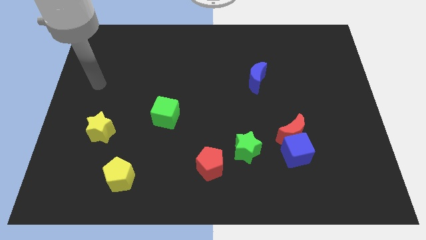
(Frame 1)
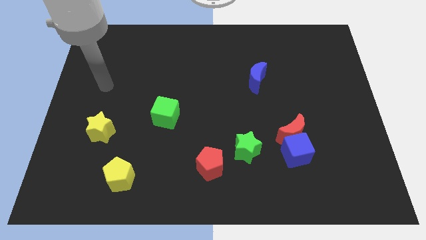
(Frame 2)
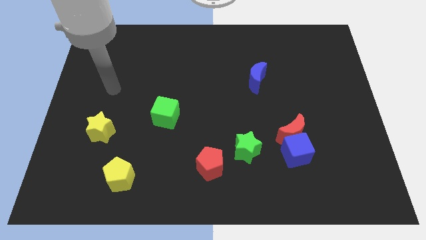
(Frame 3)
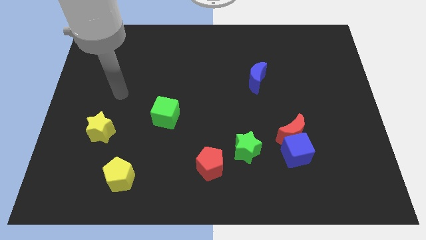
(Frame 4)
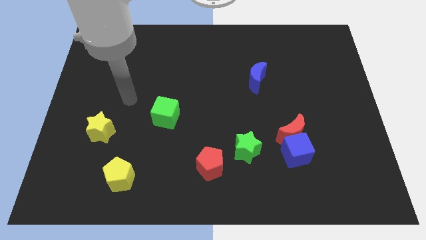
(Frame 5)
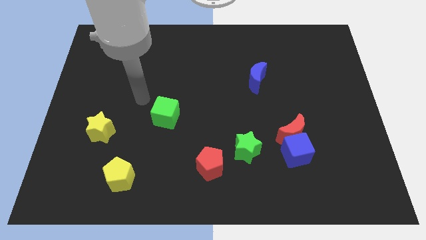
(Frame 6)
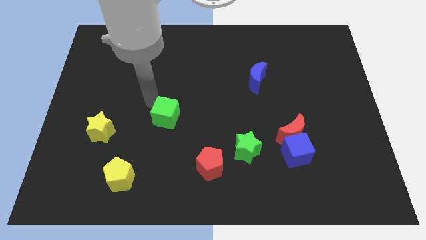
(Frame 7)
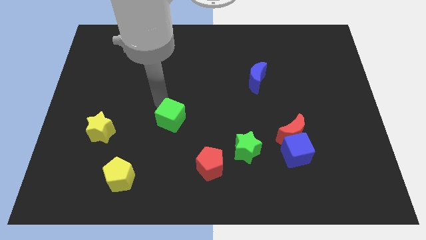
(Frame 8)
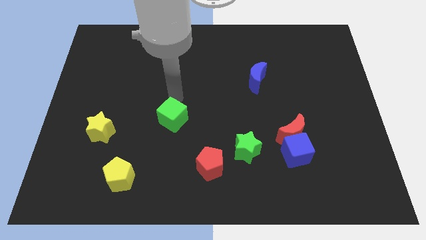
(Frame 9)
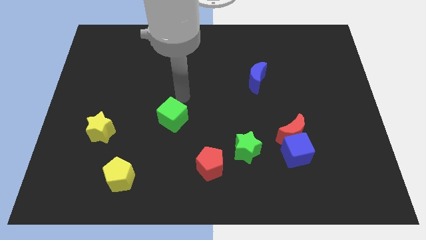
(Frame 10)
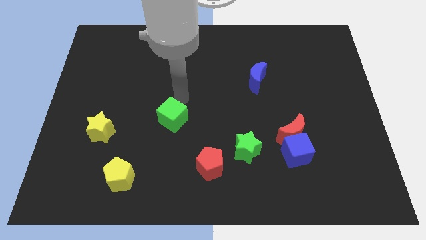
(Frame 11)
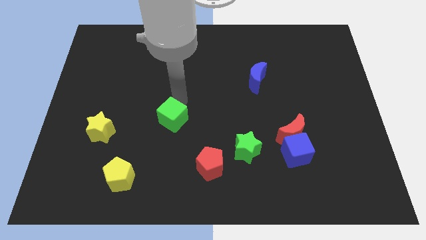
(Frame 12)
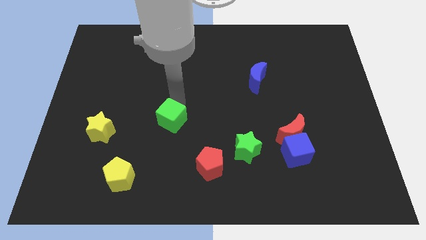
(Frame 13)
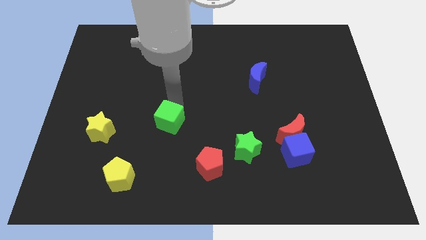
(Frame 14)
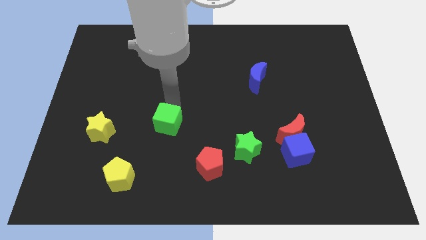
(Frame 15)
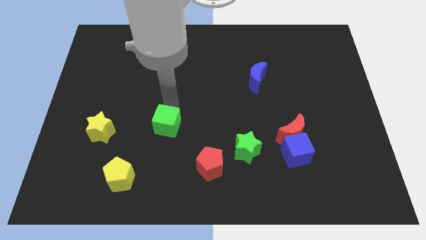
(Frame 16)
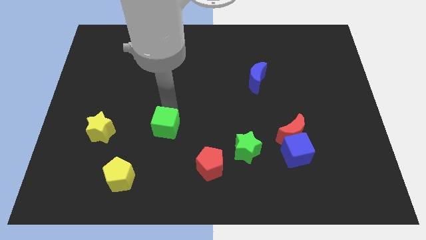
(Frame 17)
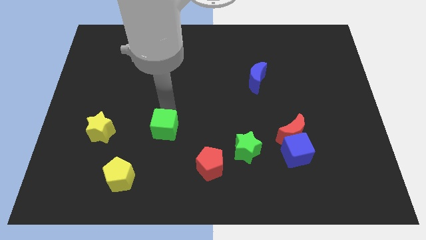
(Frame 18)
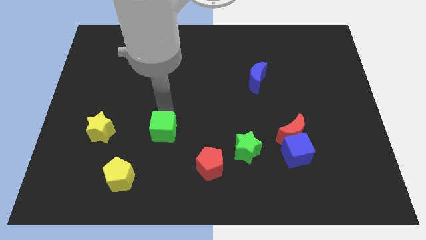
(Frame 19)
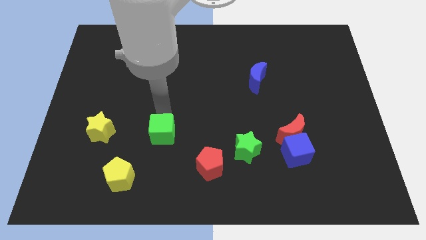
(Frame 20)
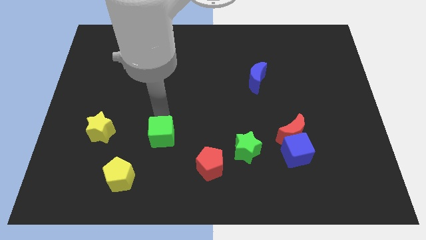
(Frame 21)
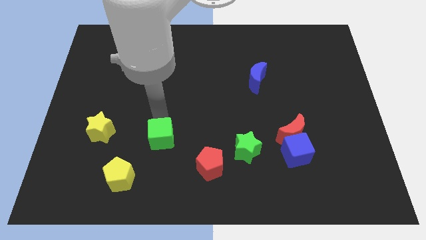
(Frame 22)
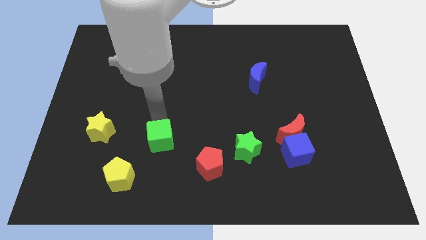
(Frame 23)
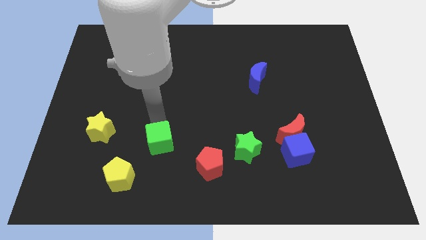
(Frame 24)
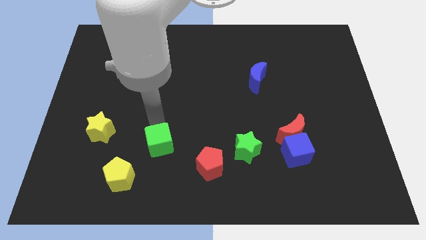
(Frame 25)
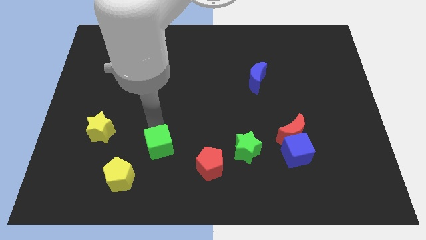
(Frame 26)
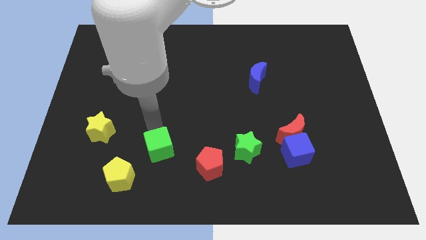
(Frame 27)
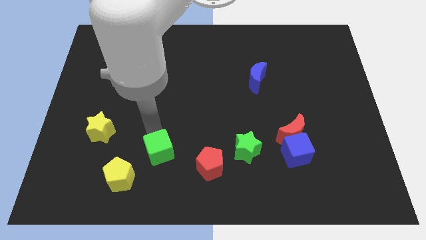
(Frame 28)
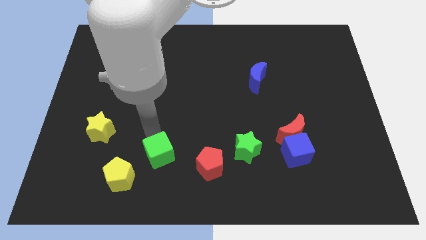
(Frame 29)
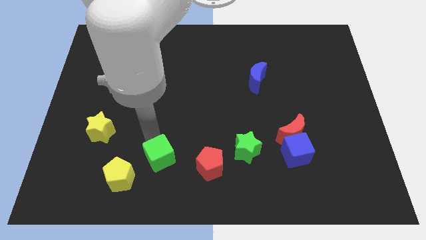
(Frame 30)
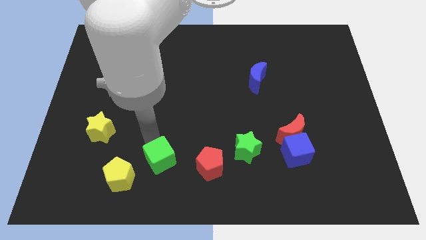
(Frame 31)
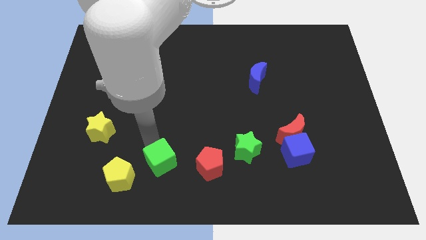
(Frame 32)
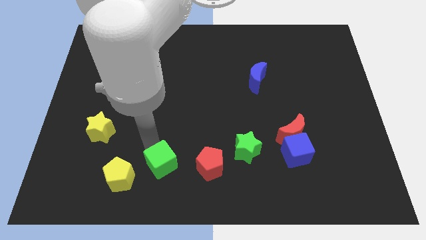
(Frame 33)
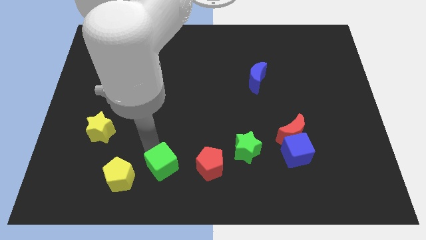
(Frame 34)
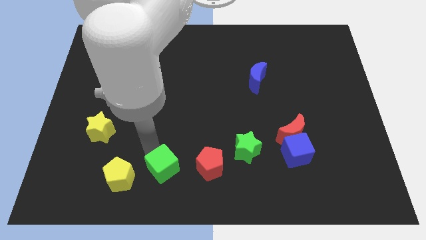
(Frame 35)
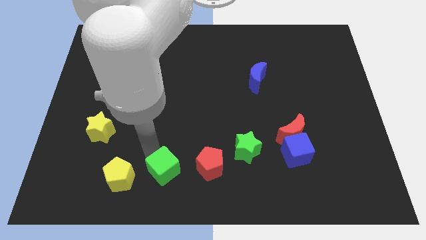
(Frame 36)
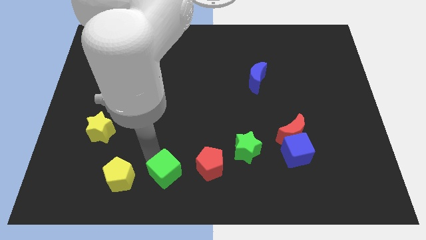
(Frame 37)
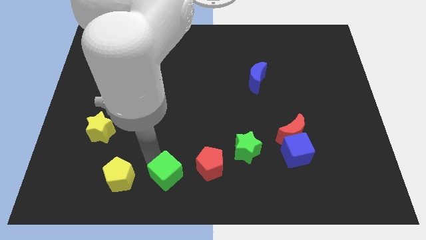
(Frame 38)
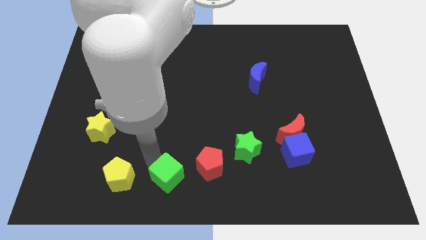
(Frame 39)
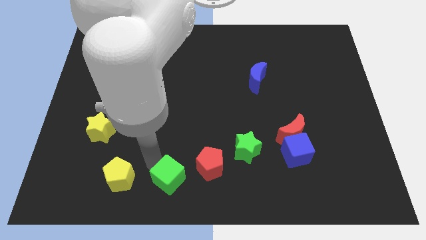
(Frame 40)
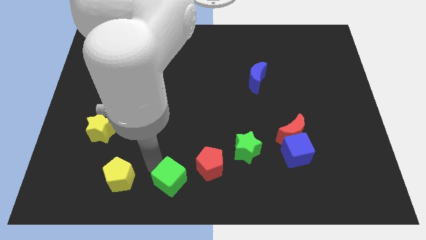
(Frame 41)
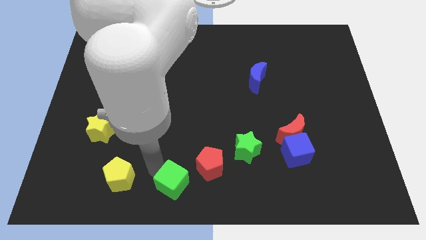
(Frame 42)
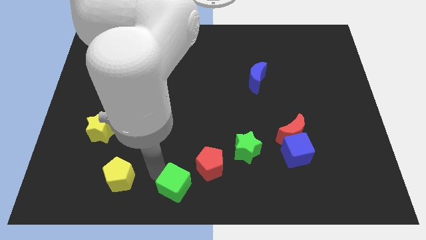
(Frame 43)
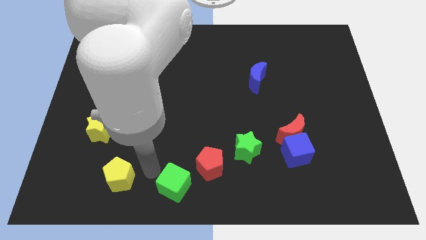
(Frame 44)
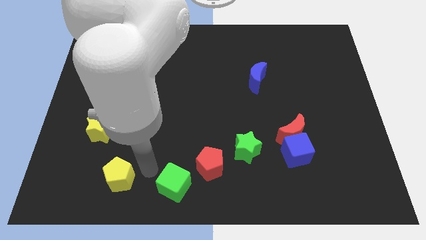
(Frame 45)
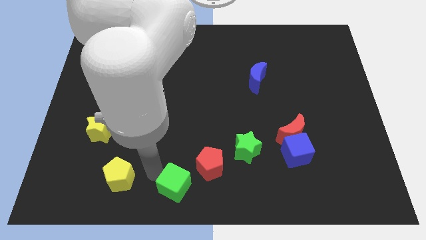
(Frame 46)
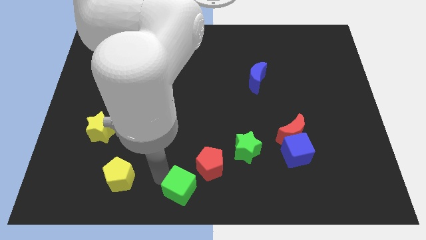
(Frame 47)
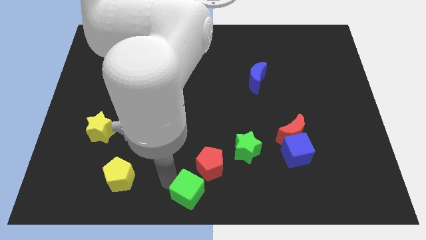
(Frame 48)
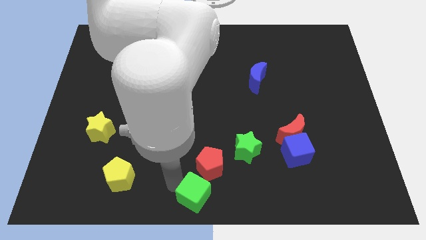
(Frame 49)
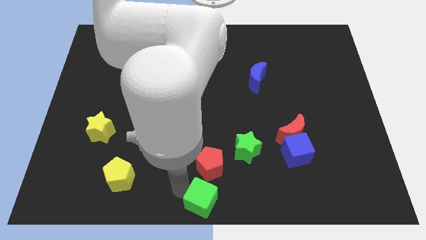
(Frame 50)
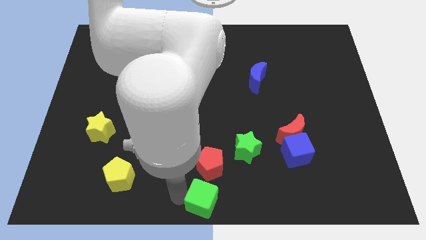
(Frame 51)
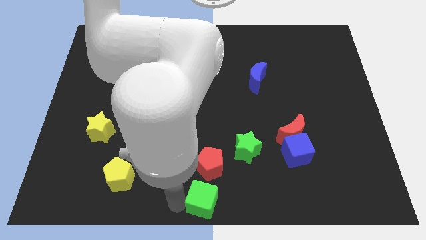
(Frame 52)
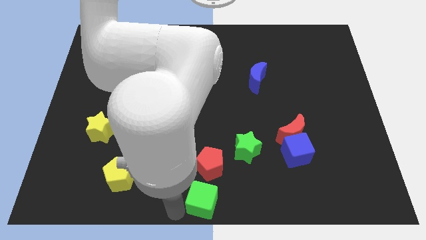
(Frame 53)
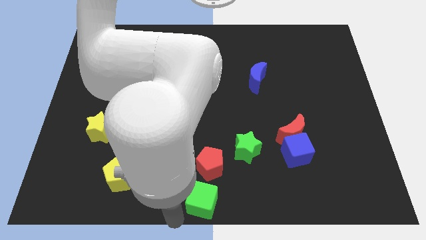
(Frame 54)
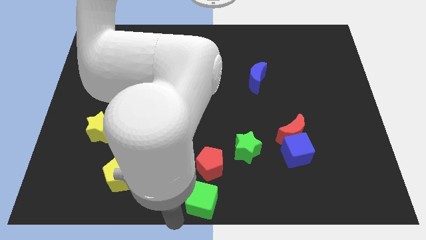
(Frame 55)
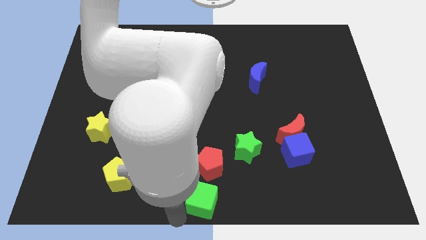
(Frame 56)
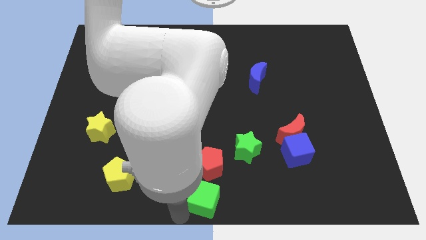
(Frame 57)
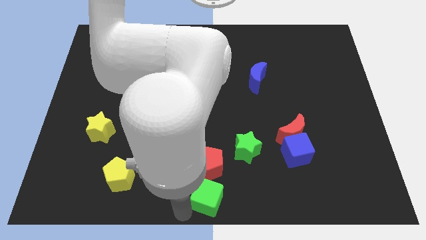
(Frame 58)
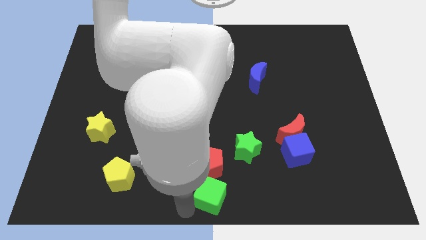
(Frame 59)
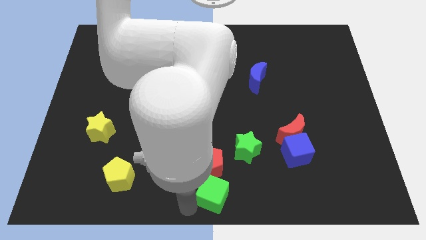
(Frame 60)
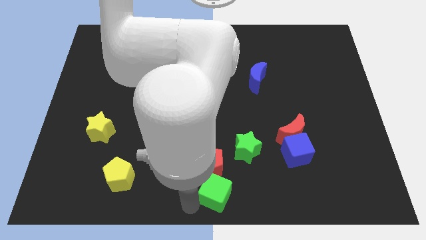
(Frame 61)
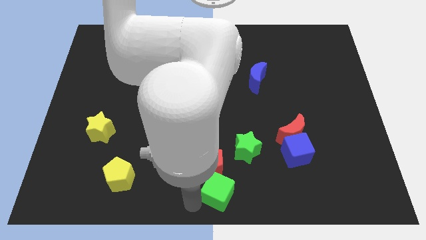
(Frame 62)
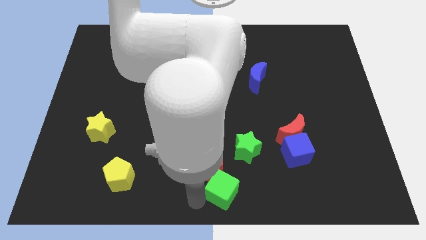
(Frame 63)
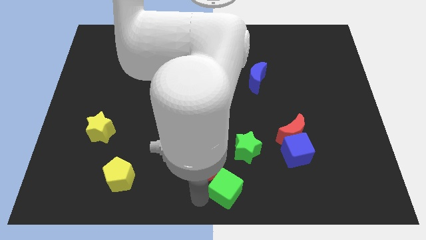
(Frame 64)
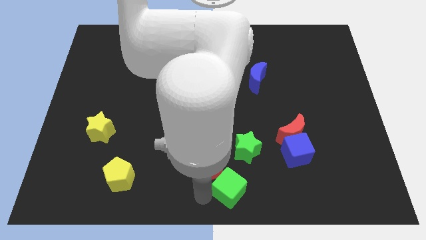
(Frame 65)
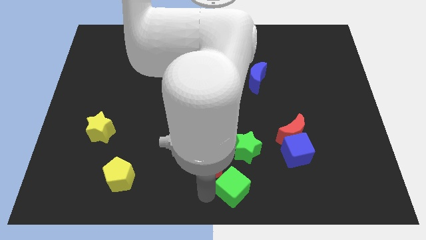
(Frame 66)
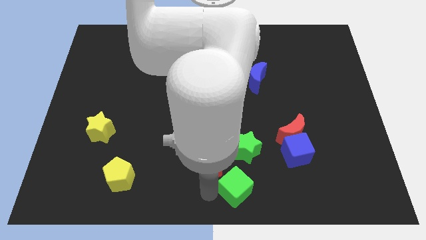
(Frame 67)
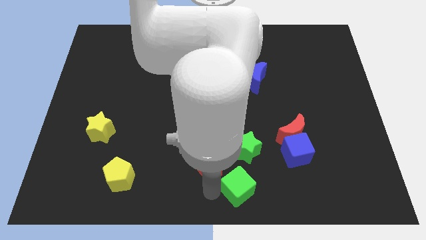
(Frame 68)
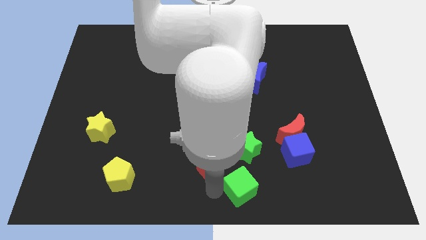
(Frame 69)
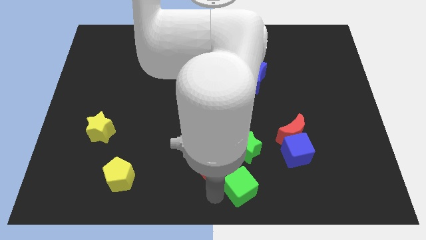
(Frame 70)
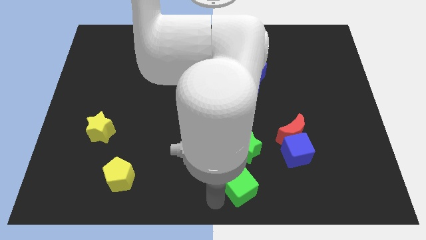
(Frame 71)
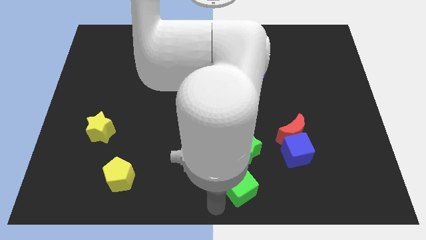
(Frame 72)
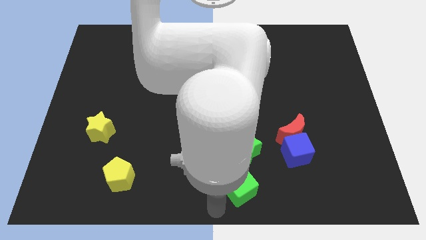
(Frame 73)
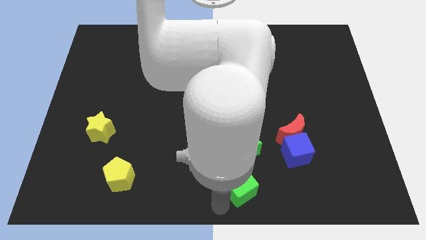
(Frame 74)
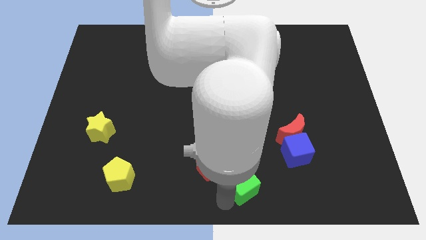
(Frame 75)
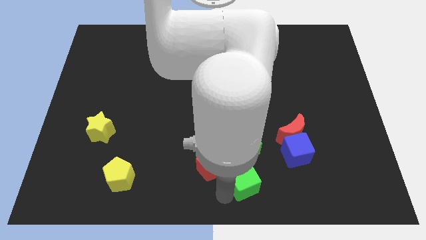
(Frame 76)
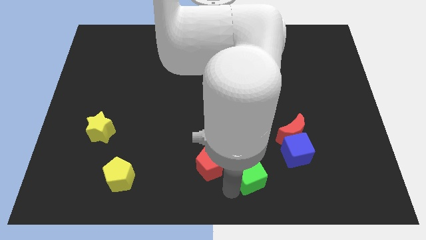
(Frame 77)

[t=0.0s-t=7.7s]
slide the green cube diagonally down and to the right of the green star
